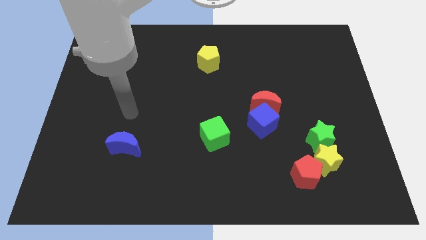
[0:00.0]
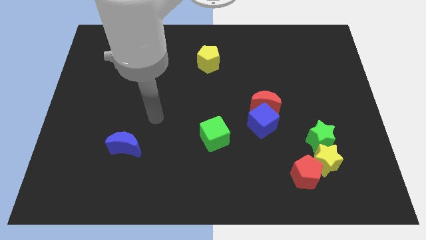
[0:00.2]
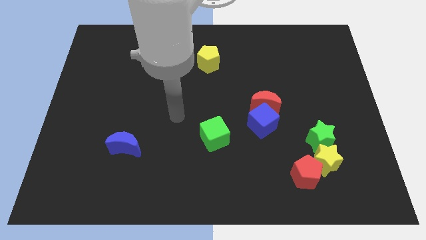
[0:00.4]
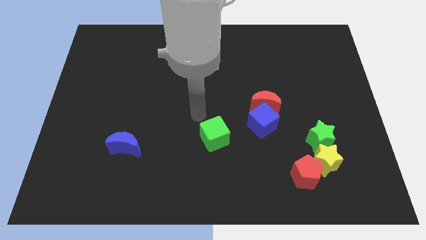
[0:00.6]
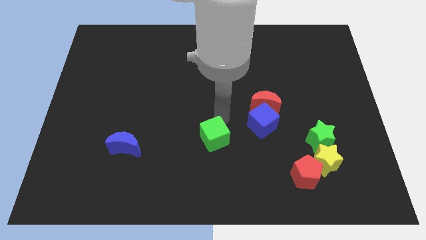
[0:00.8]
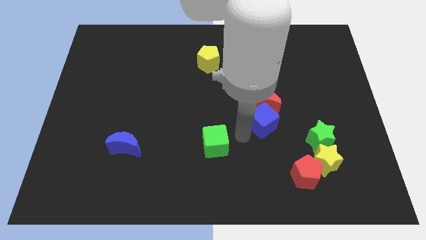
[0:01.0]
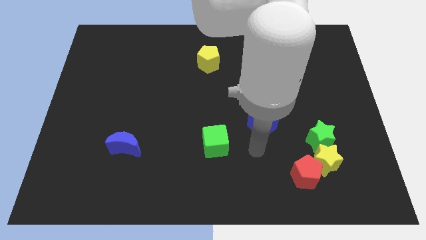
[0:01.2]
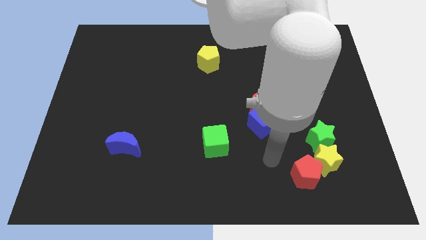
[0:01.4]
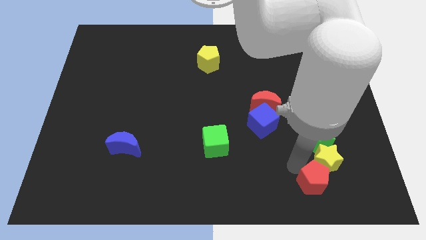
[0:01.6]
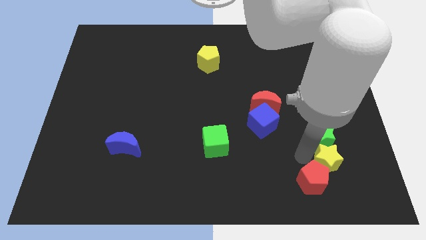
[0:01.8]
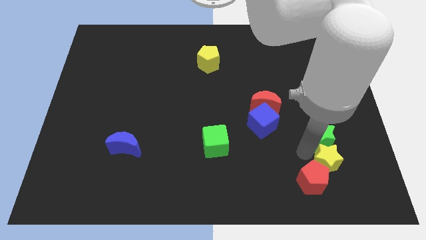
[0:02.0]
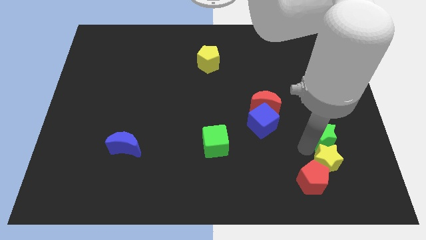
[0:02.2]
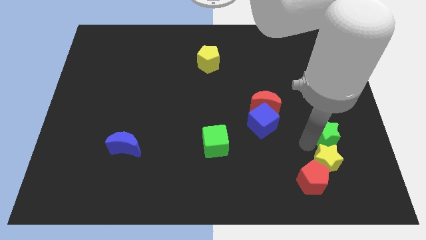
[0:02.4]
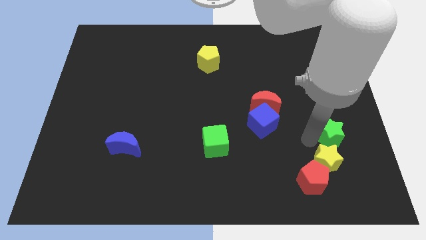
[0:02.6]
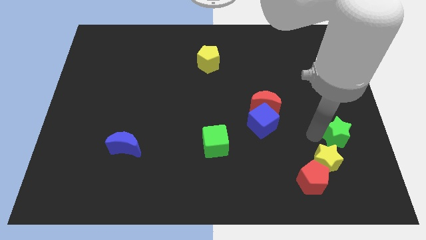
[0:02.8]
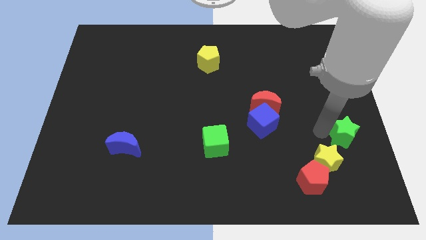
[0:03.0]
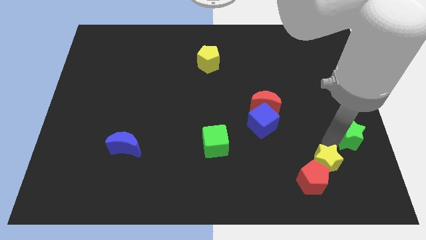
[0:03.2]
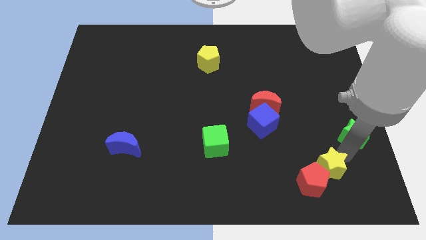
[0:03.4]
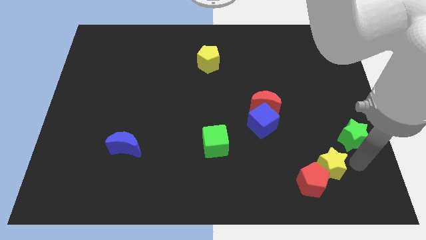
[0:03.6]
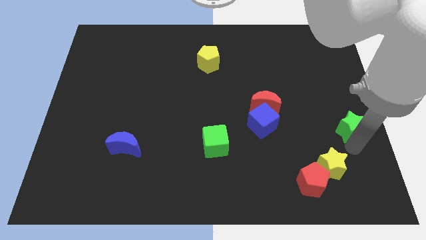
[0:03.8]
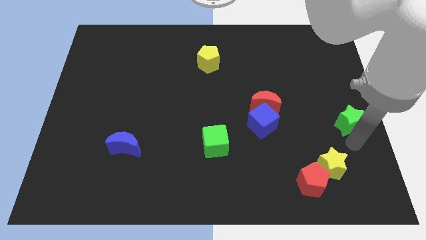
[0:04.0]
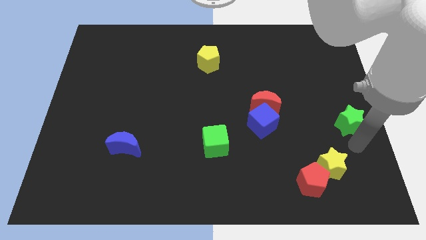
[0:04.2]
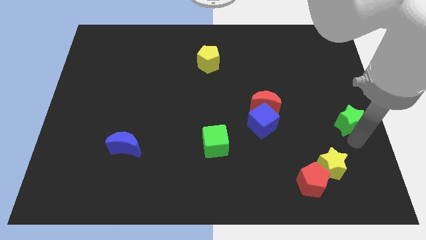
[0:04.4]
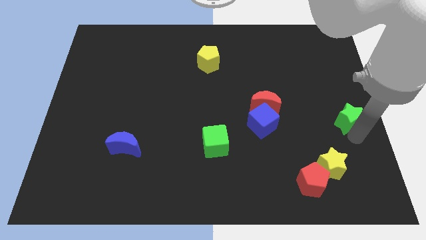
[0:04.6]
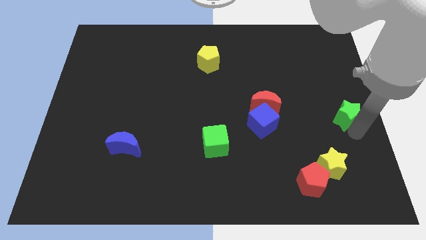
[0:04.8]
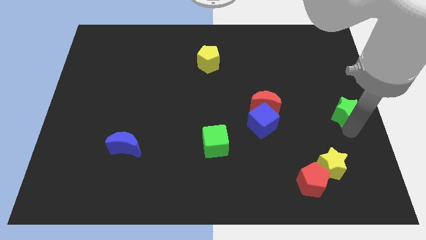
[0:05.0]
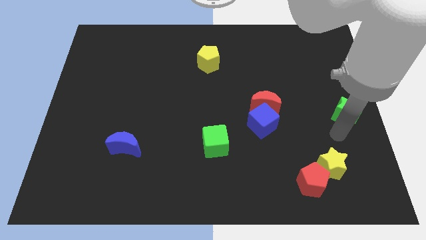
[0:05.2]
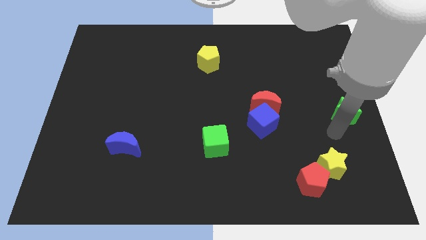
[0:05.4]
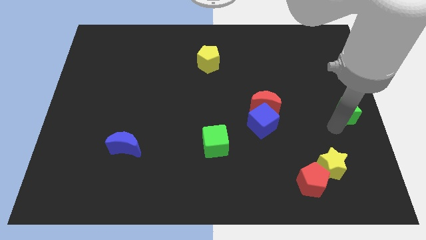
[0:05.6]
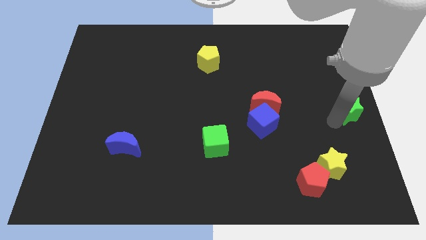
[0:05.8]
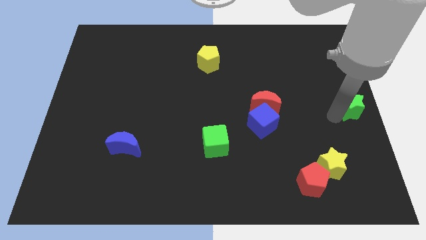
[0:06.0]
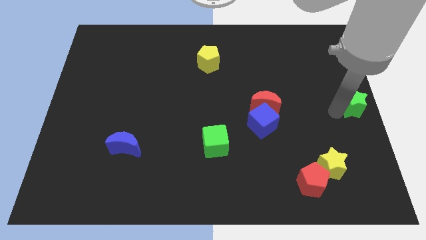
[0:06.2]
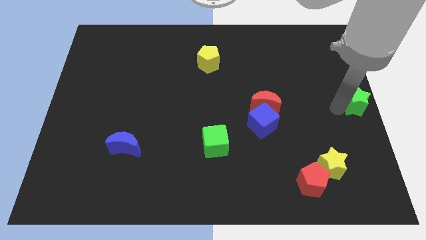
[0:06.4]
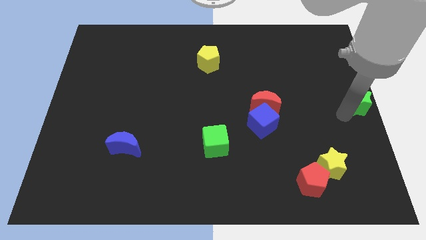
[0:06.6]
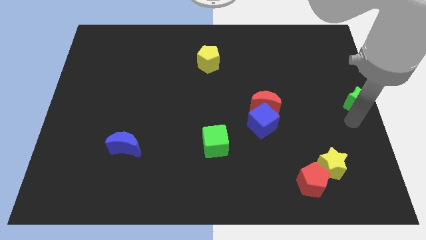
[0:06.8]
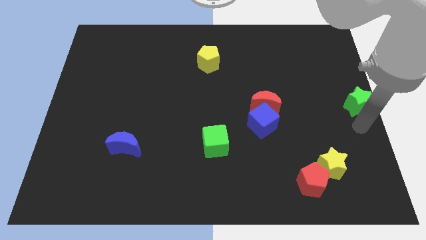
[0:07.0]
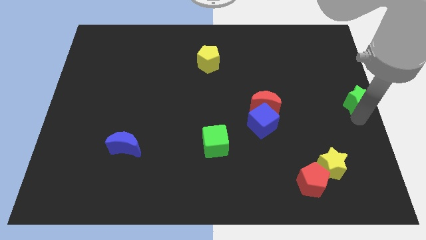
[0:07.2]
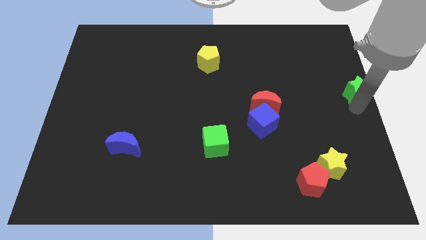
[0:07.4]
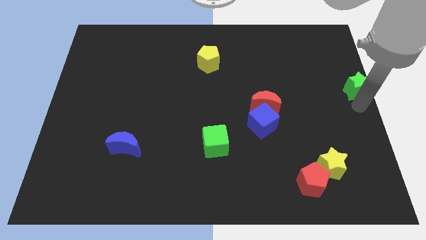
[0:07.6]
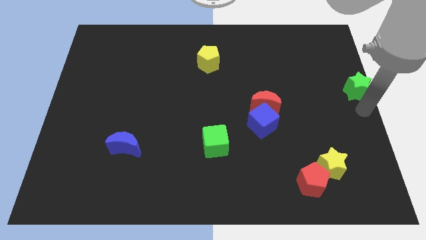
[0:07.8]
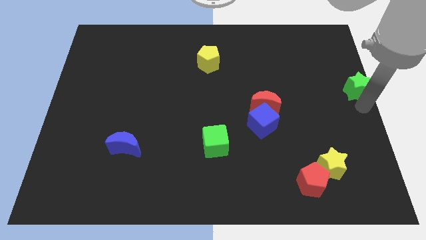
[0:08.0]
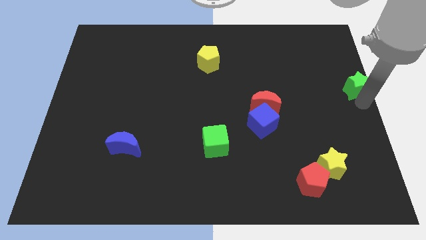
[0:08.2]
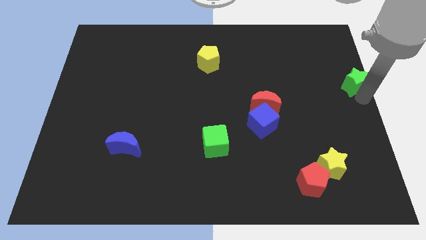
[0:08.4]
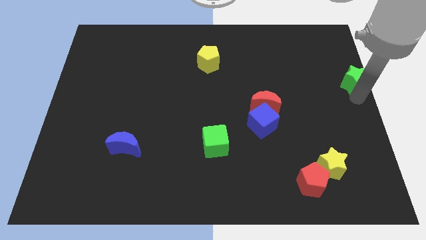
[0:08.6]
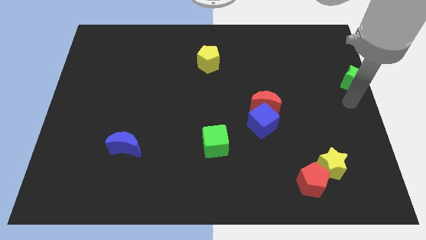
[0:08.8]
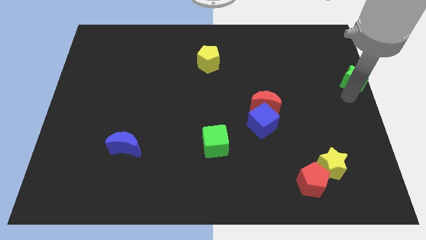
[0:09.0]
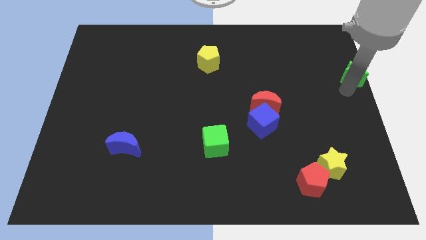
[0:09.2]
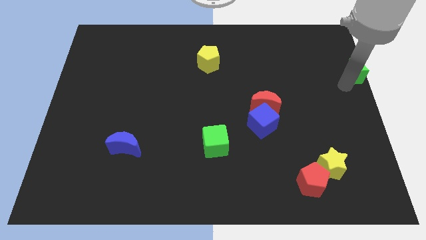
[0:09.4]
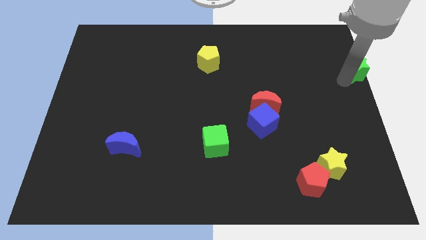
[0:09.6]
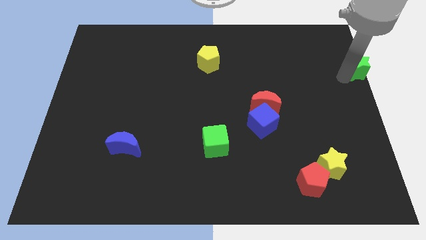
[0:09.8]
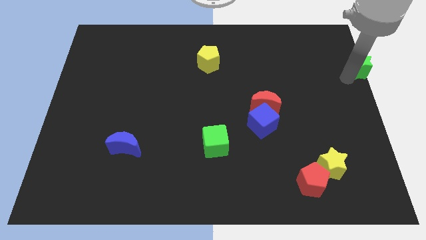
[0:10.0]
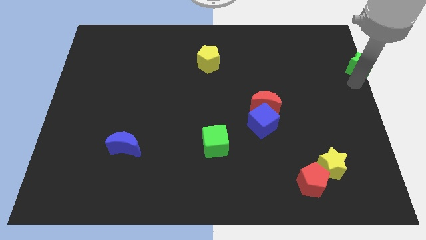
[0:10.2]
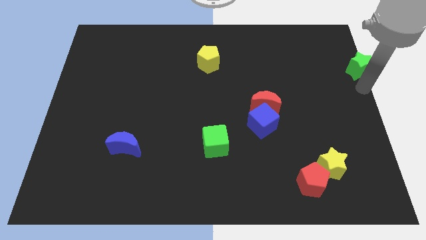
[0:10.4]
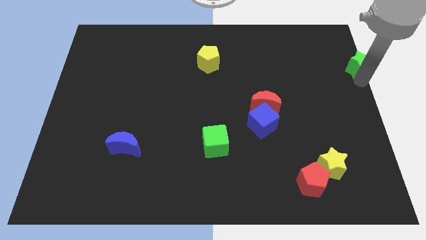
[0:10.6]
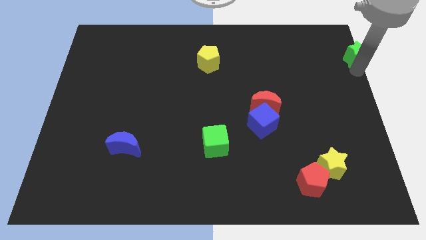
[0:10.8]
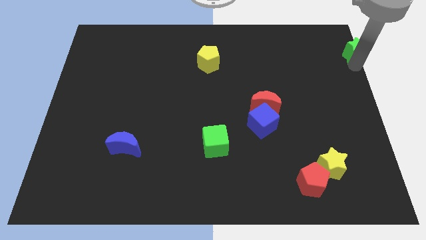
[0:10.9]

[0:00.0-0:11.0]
push the green star to the upper right corner

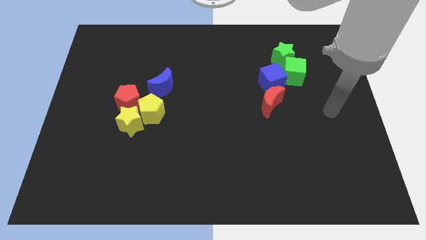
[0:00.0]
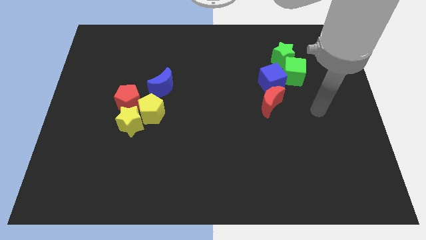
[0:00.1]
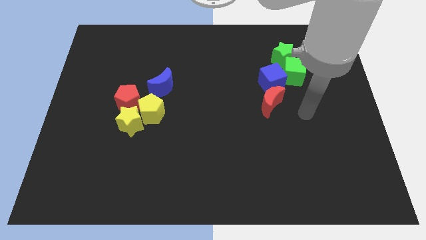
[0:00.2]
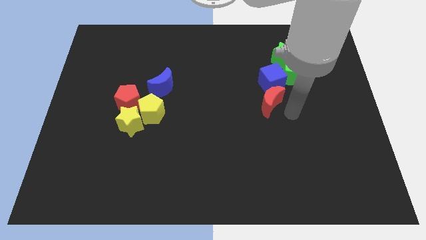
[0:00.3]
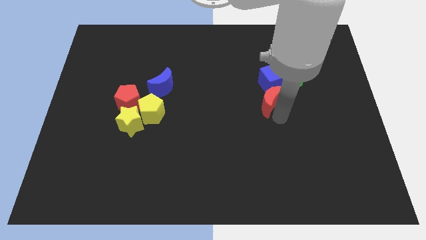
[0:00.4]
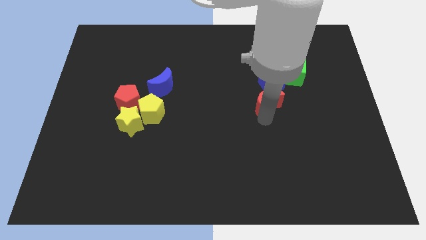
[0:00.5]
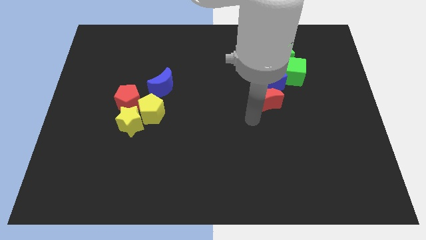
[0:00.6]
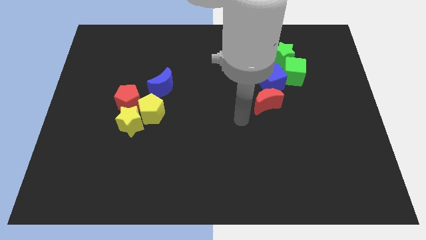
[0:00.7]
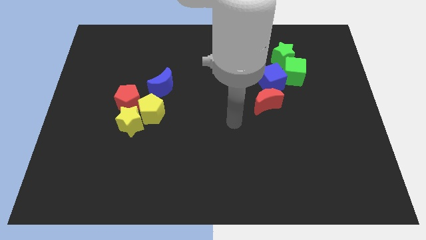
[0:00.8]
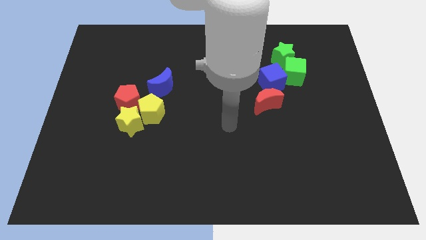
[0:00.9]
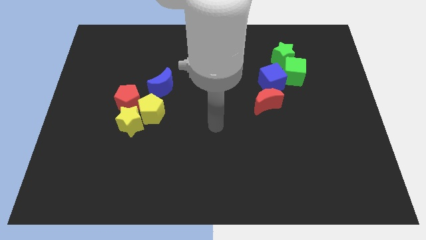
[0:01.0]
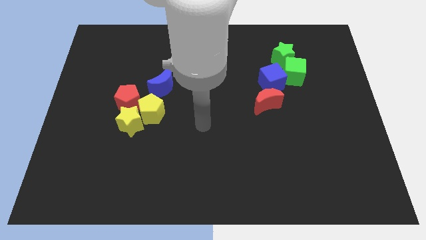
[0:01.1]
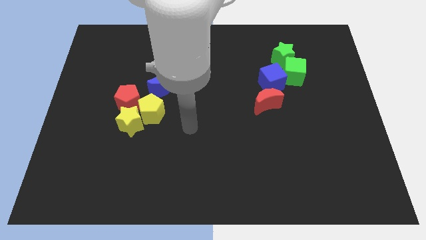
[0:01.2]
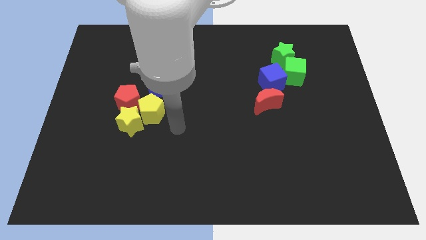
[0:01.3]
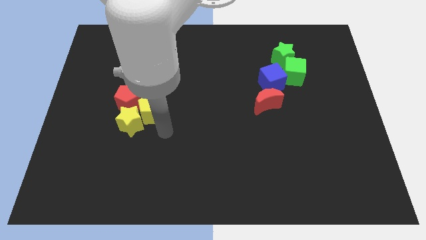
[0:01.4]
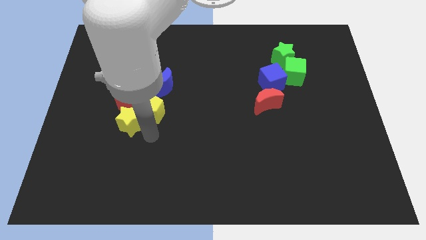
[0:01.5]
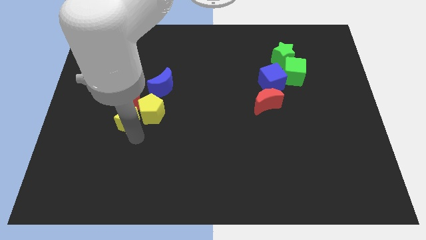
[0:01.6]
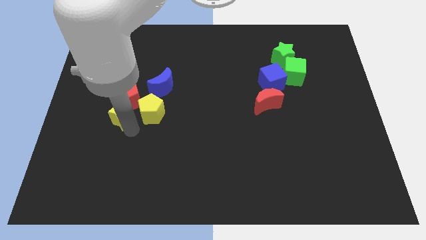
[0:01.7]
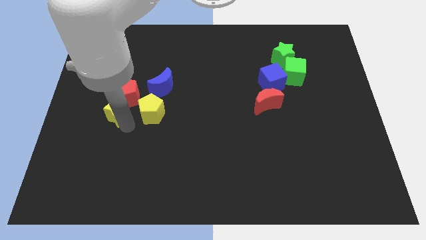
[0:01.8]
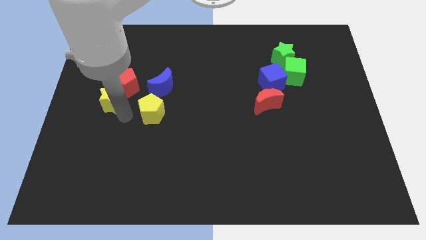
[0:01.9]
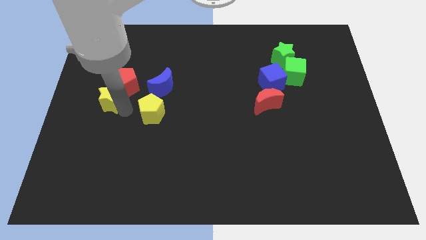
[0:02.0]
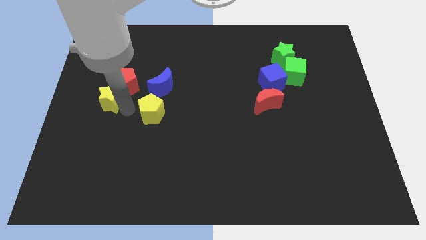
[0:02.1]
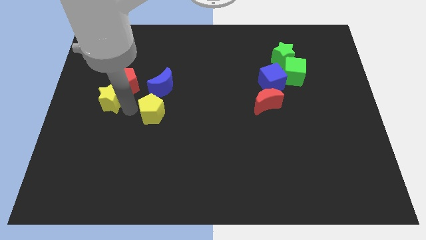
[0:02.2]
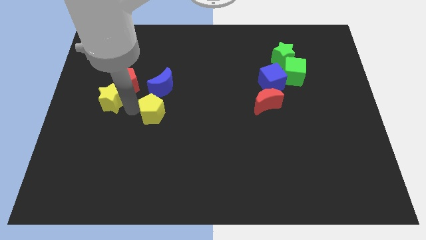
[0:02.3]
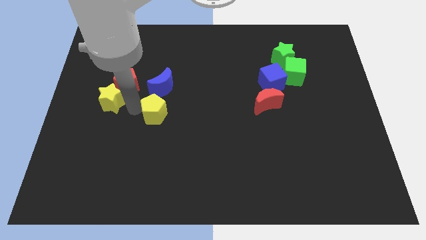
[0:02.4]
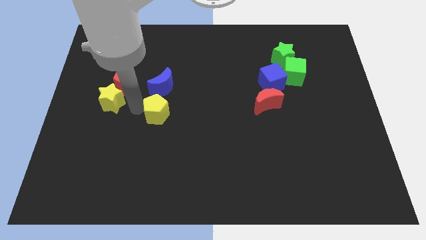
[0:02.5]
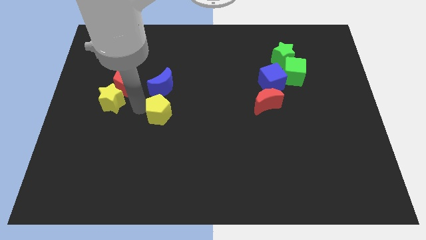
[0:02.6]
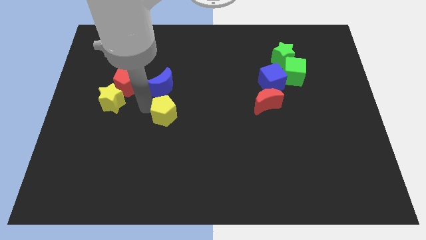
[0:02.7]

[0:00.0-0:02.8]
slide the yellow pentagon to the middle
